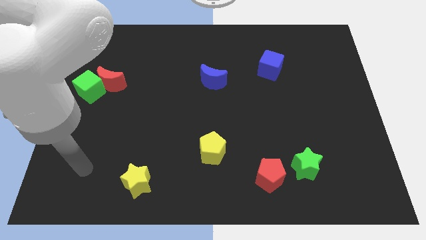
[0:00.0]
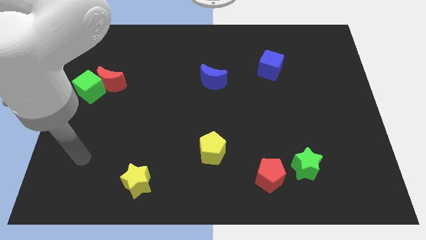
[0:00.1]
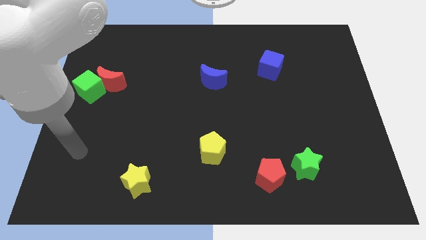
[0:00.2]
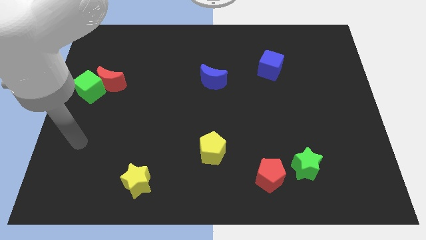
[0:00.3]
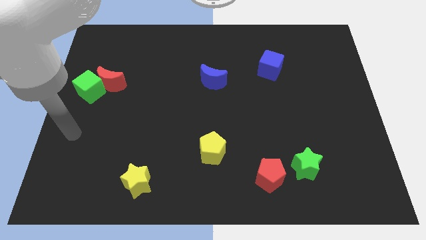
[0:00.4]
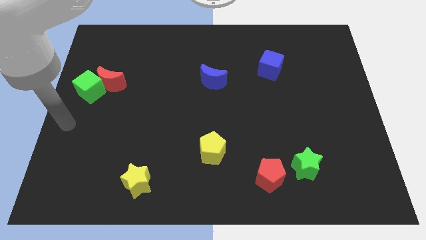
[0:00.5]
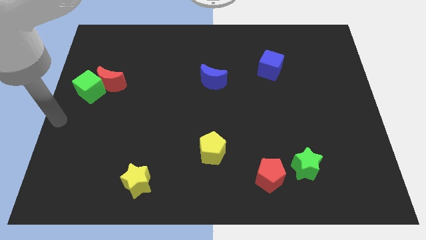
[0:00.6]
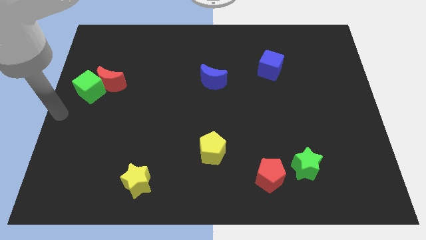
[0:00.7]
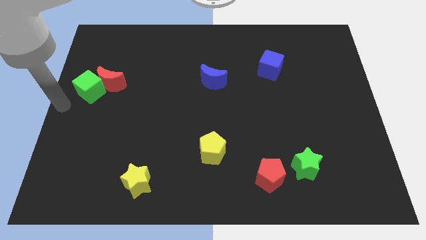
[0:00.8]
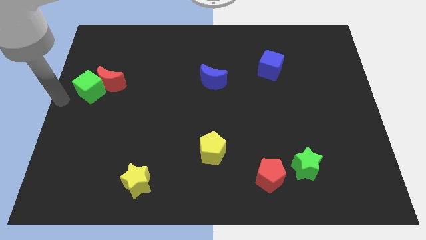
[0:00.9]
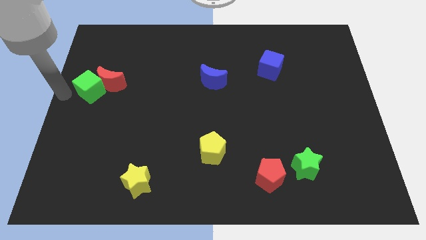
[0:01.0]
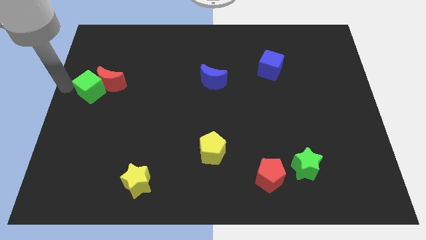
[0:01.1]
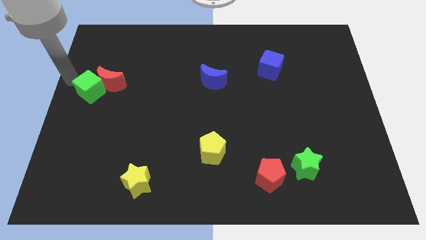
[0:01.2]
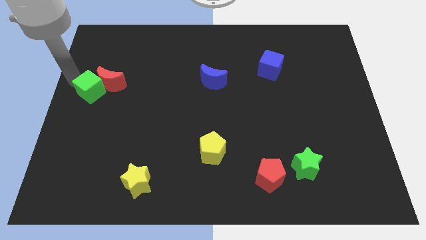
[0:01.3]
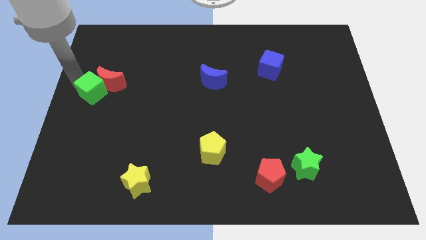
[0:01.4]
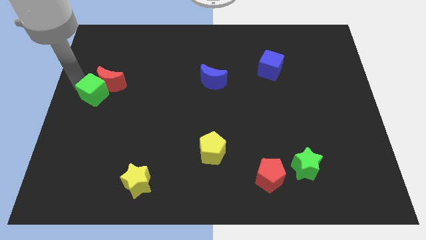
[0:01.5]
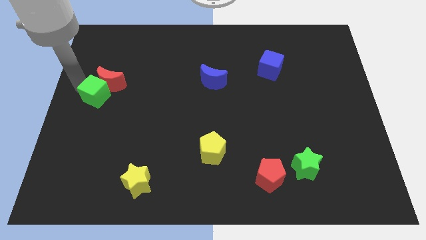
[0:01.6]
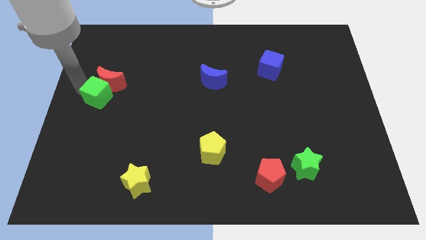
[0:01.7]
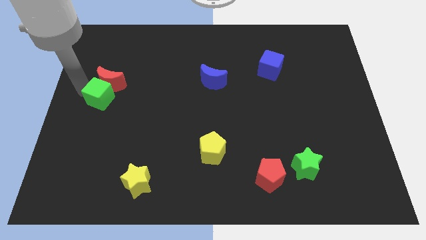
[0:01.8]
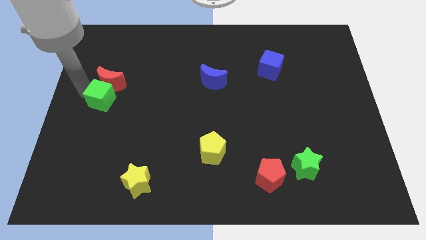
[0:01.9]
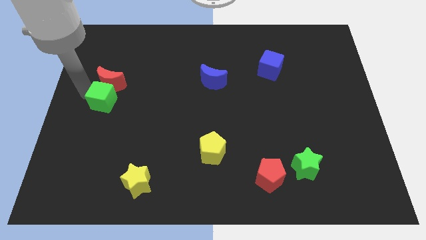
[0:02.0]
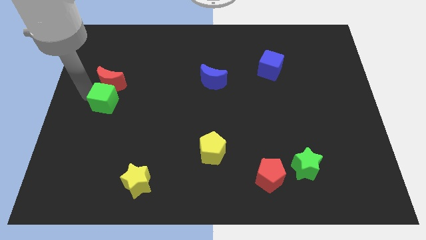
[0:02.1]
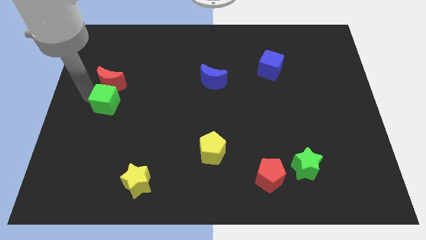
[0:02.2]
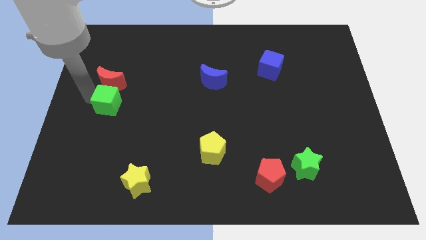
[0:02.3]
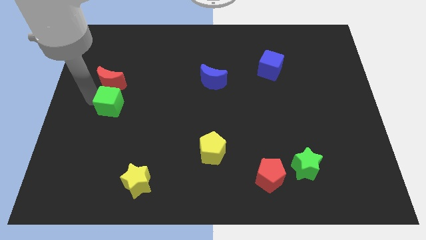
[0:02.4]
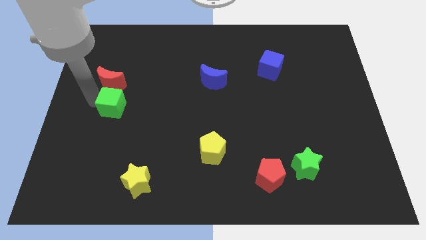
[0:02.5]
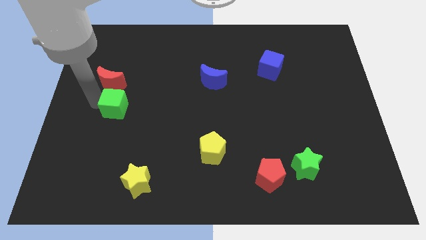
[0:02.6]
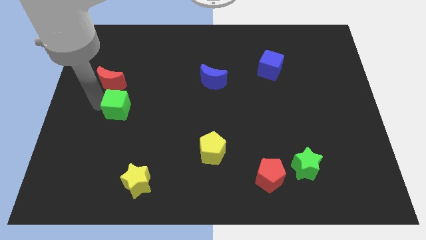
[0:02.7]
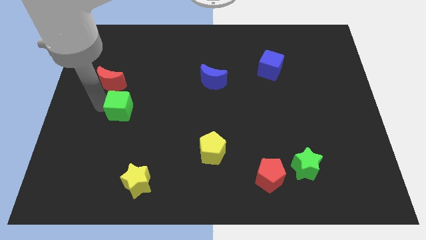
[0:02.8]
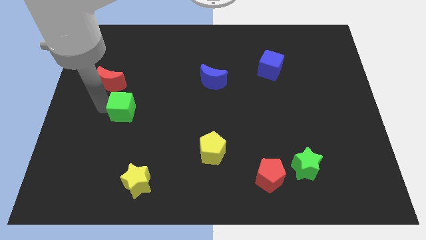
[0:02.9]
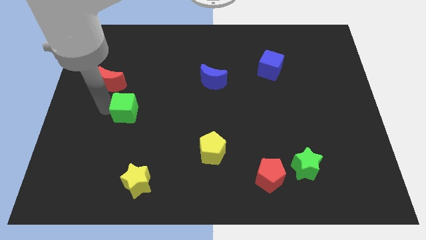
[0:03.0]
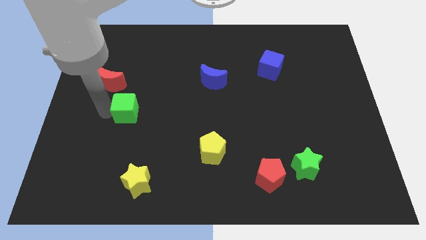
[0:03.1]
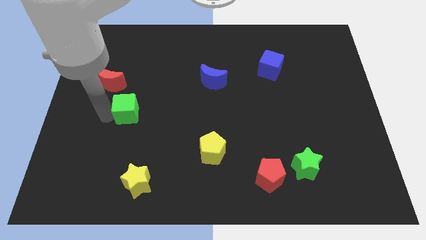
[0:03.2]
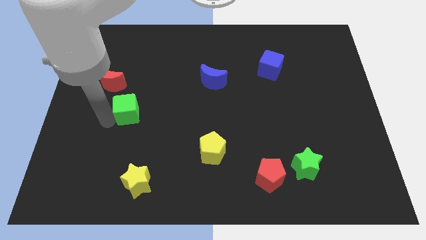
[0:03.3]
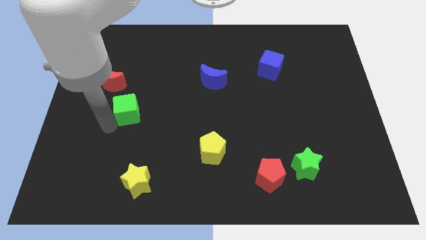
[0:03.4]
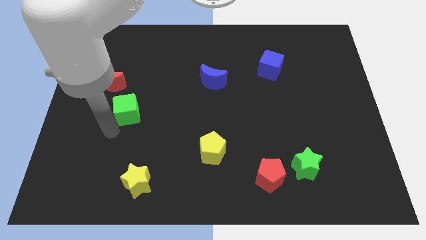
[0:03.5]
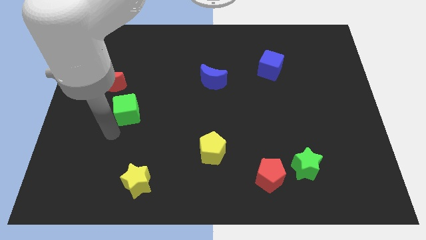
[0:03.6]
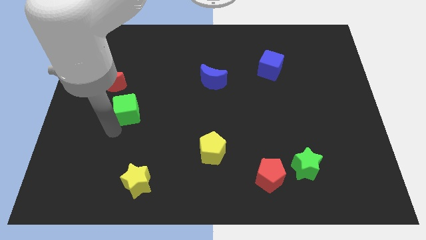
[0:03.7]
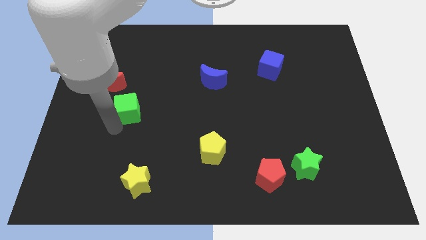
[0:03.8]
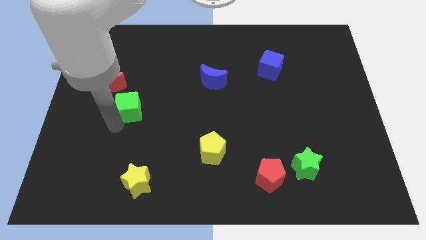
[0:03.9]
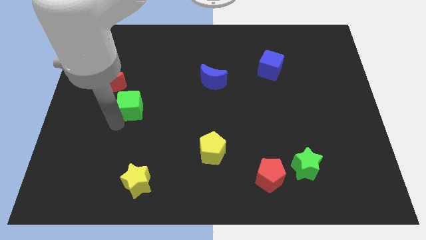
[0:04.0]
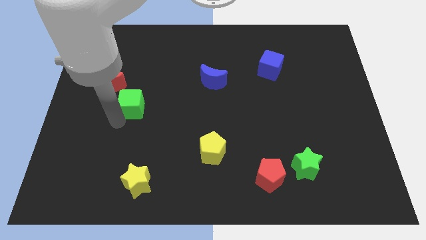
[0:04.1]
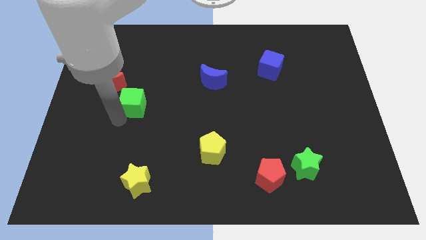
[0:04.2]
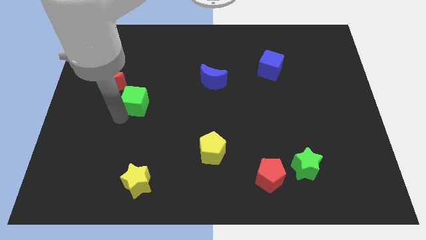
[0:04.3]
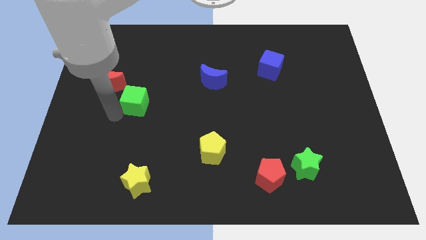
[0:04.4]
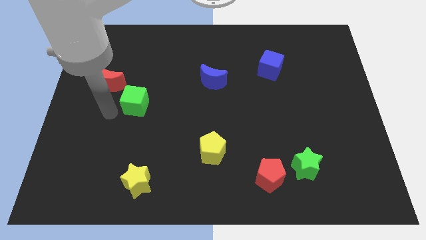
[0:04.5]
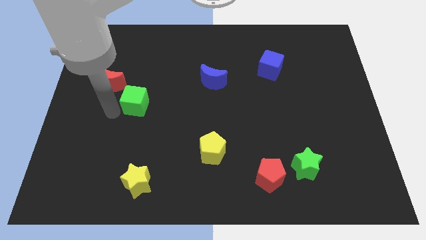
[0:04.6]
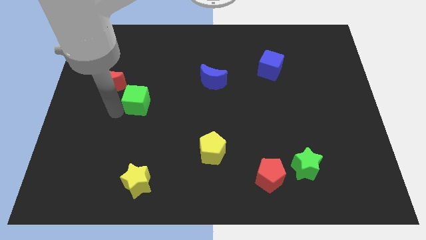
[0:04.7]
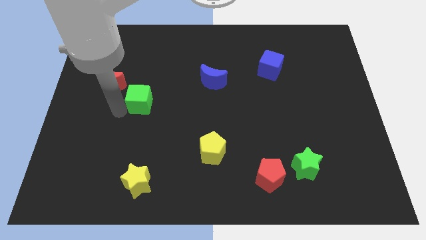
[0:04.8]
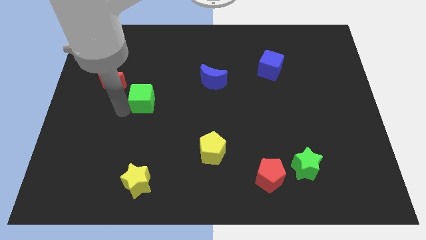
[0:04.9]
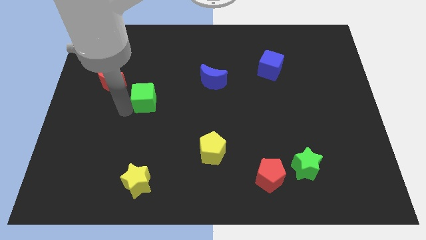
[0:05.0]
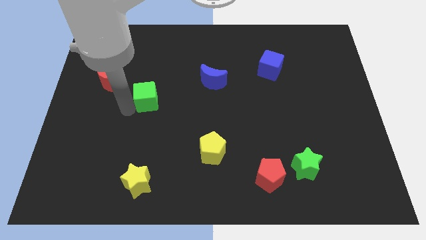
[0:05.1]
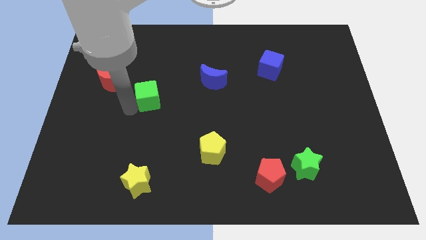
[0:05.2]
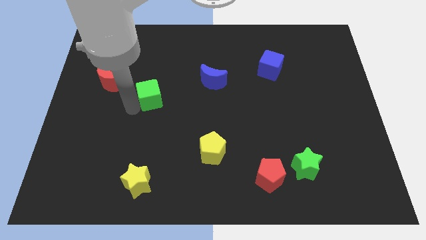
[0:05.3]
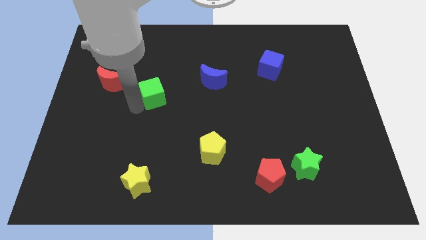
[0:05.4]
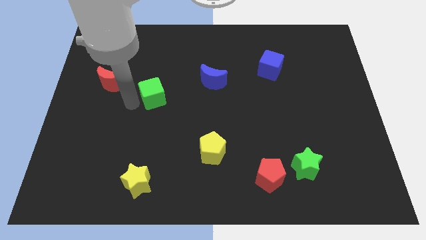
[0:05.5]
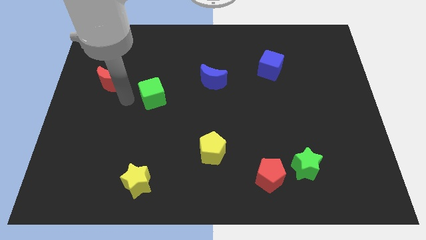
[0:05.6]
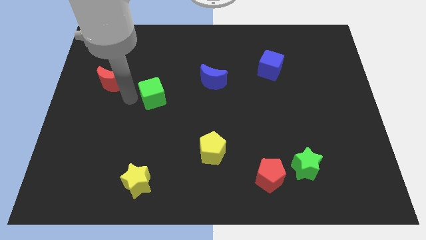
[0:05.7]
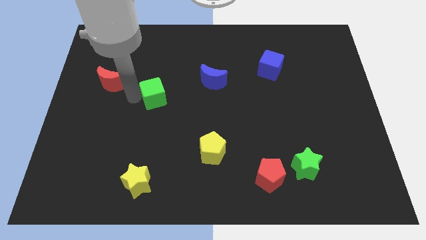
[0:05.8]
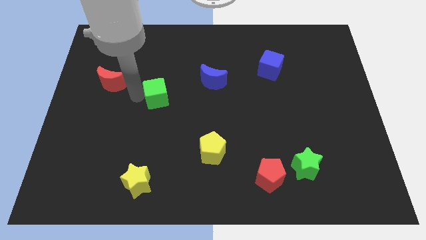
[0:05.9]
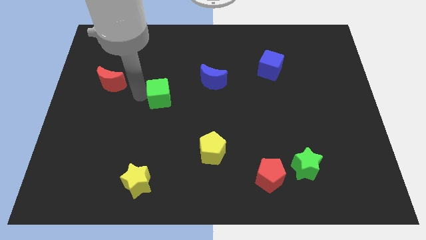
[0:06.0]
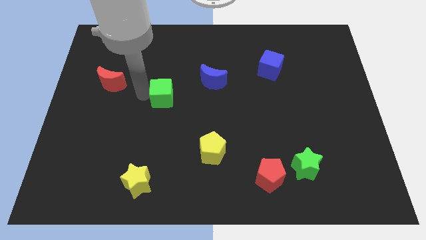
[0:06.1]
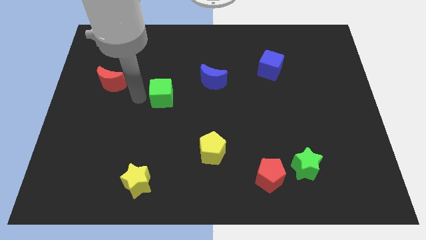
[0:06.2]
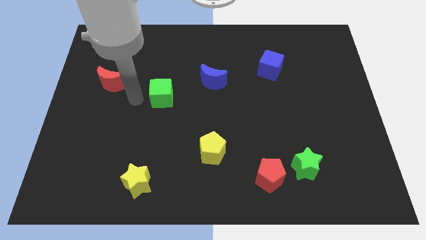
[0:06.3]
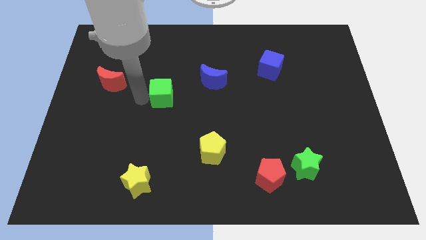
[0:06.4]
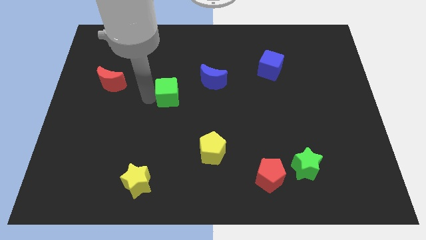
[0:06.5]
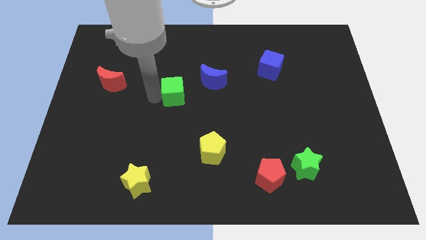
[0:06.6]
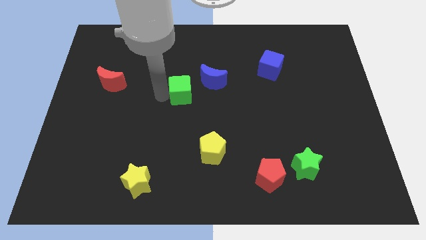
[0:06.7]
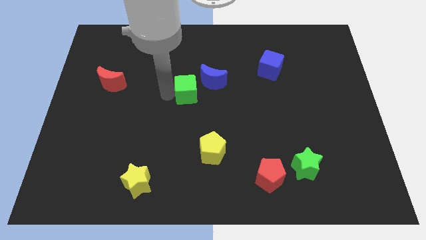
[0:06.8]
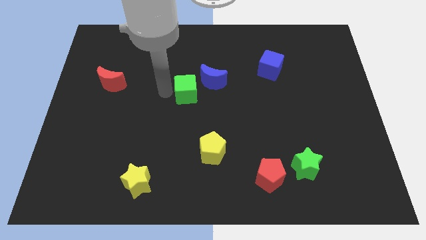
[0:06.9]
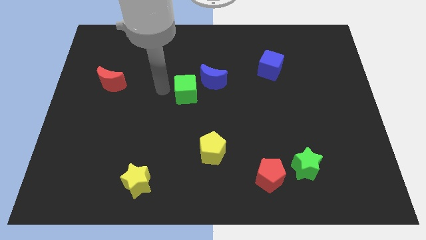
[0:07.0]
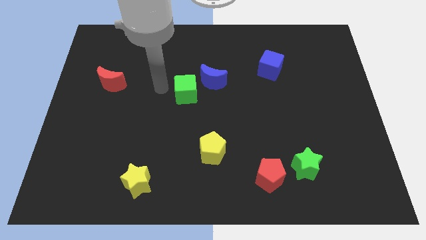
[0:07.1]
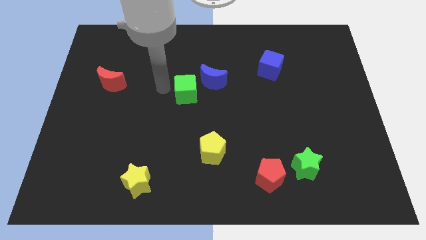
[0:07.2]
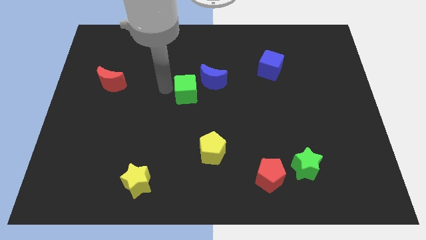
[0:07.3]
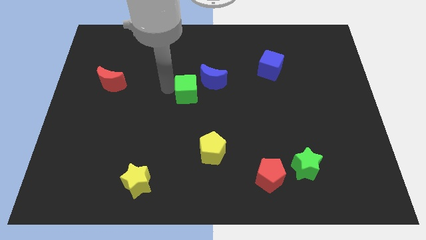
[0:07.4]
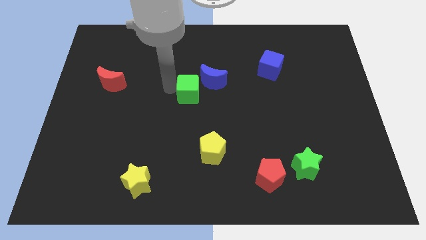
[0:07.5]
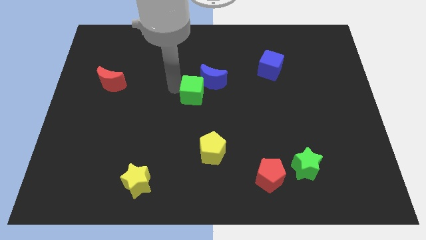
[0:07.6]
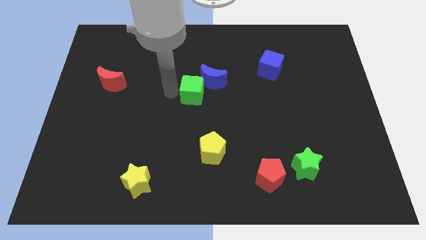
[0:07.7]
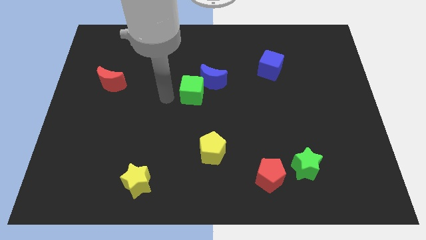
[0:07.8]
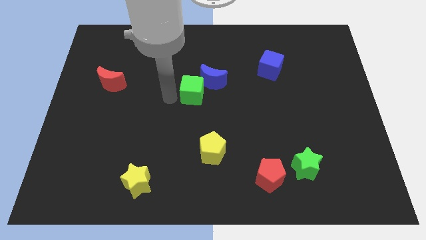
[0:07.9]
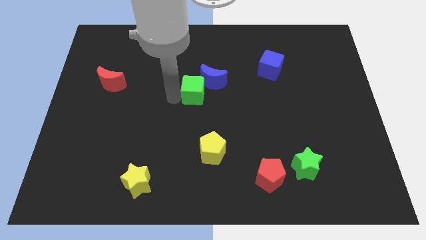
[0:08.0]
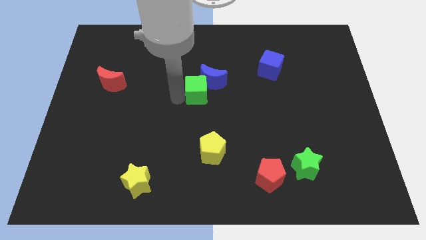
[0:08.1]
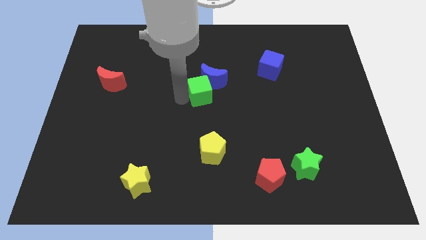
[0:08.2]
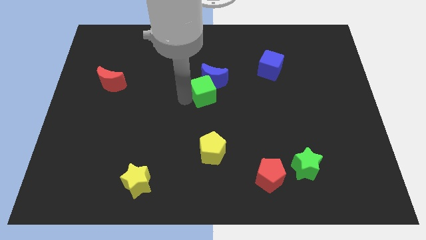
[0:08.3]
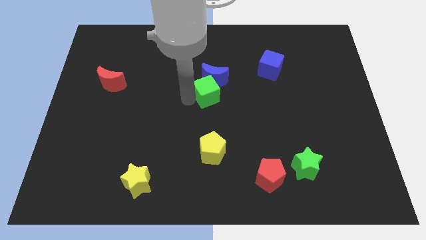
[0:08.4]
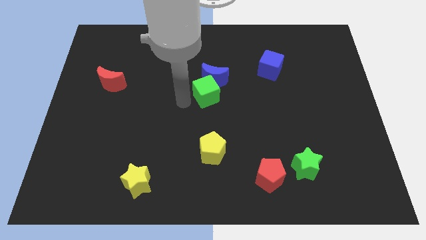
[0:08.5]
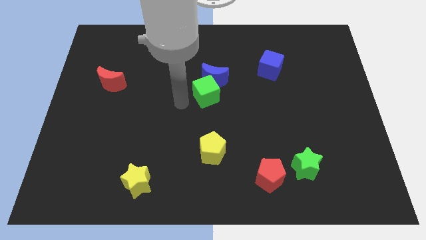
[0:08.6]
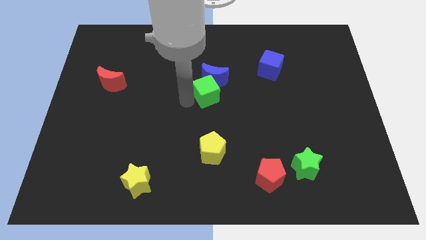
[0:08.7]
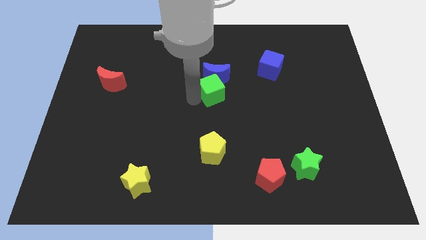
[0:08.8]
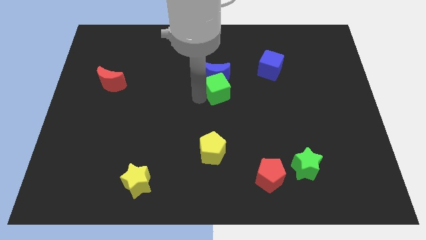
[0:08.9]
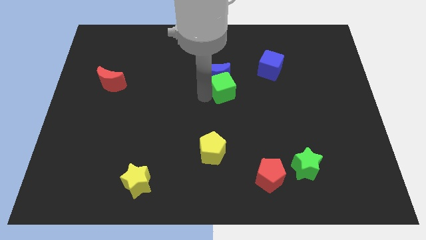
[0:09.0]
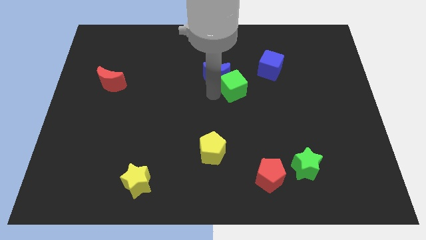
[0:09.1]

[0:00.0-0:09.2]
move the green cube to the right of the blue moon
